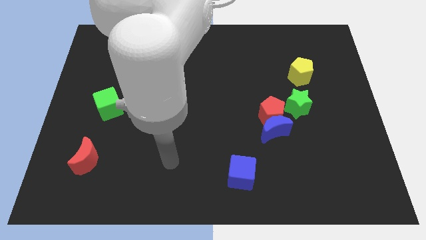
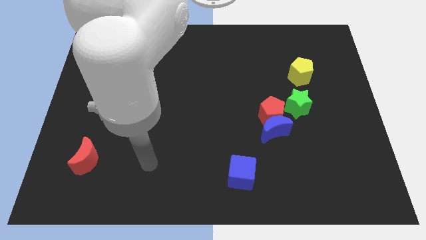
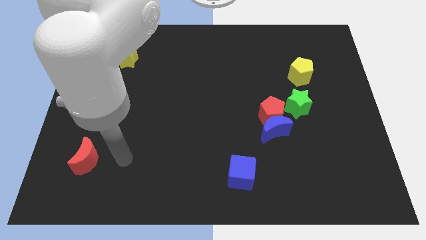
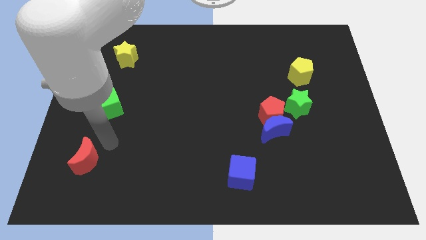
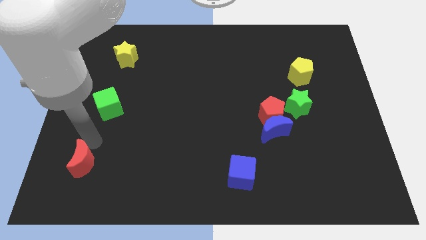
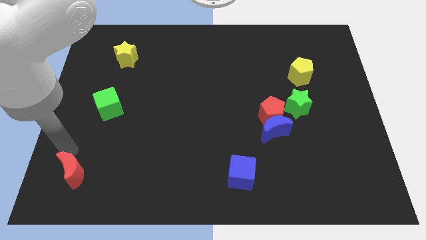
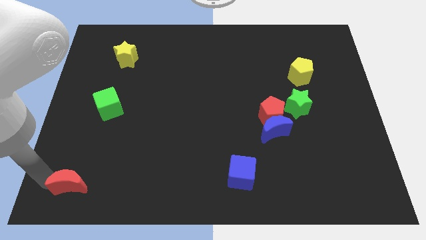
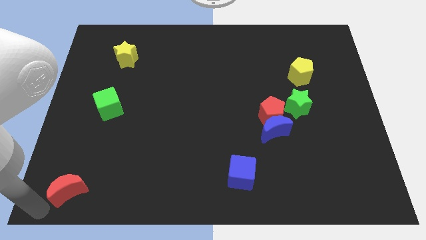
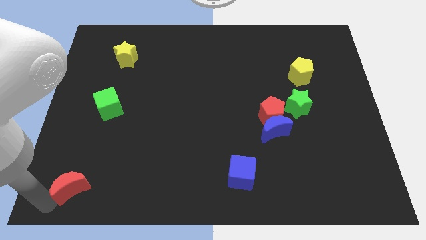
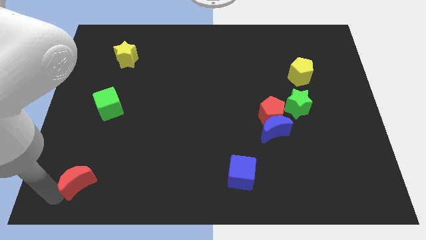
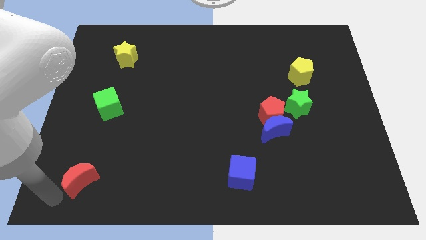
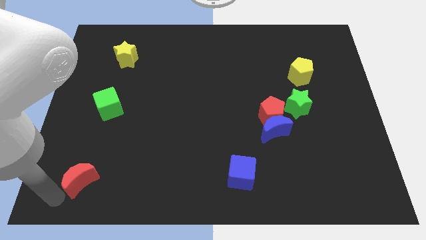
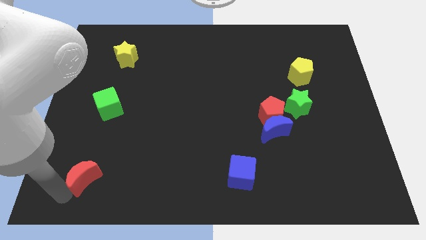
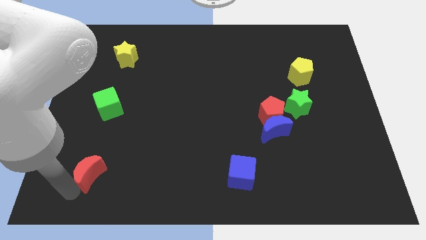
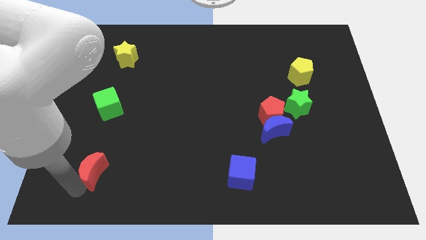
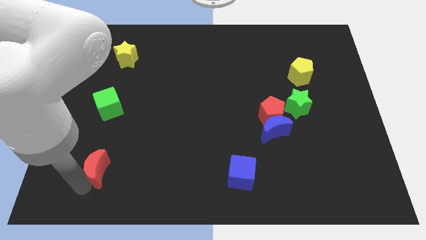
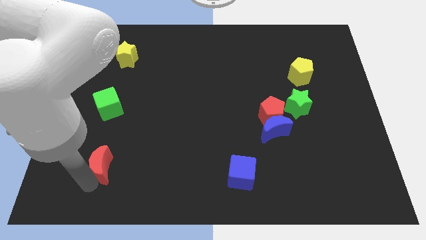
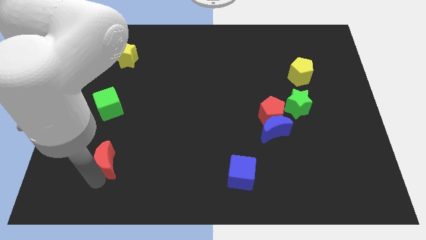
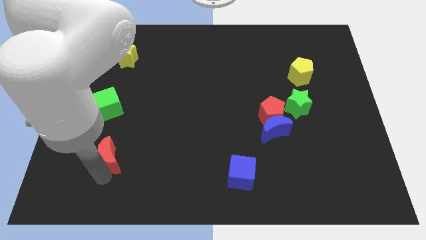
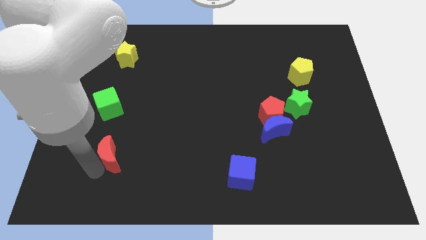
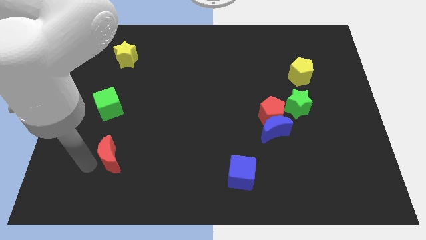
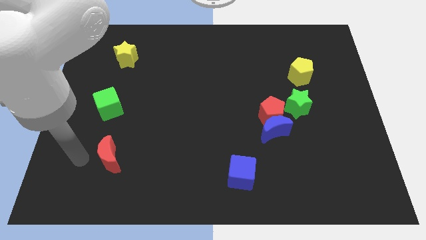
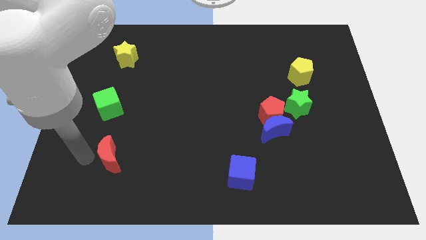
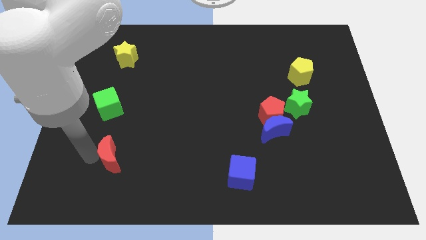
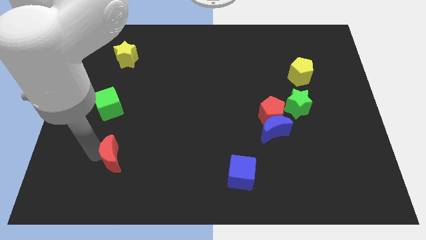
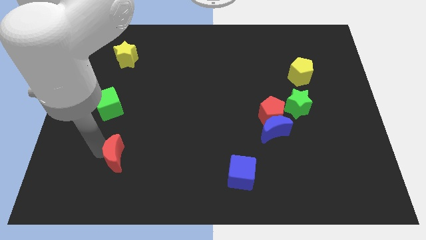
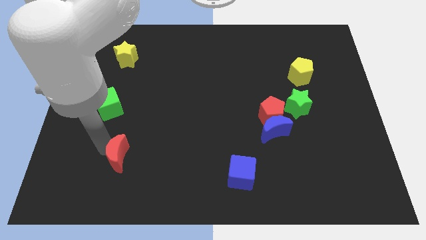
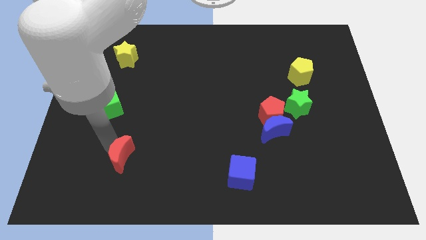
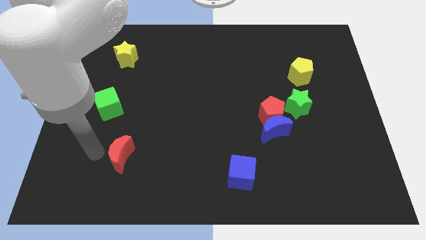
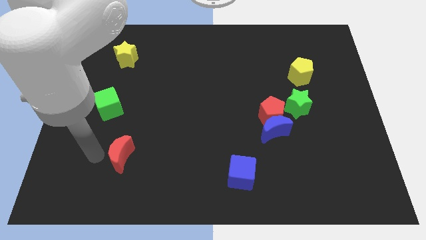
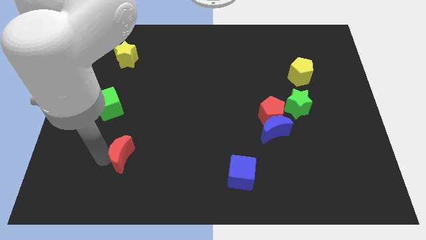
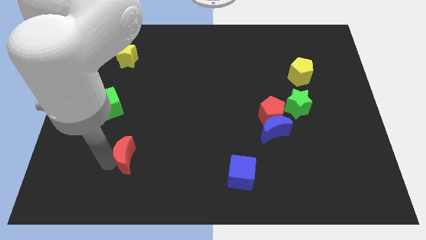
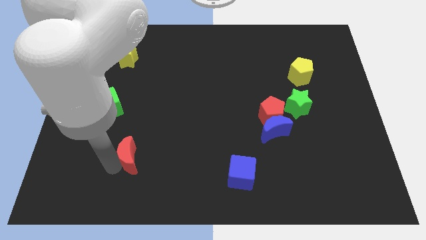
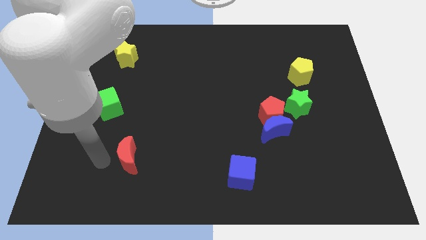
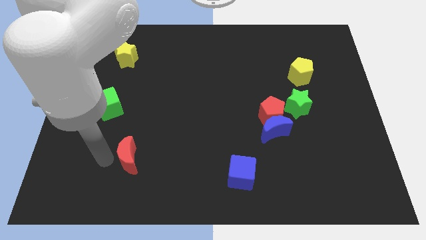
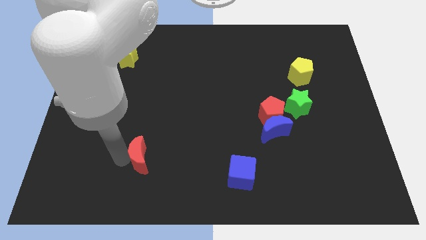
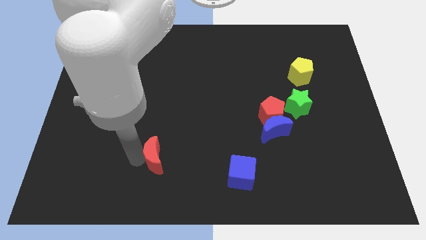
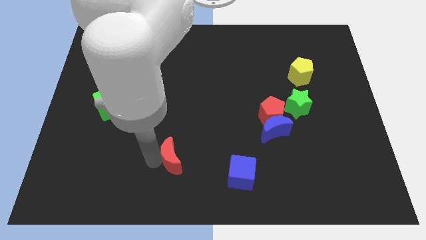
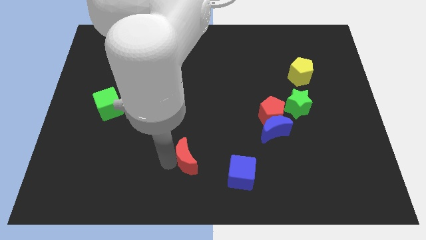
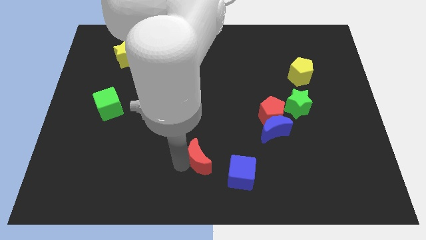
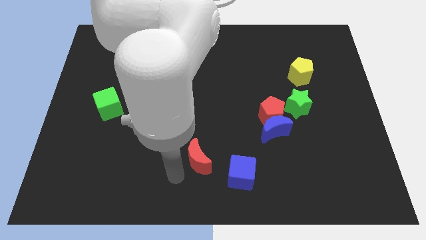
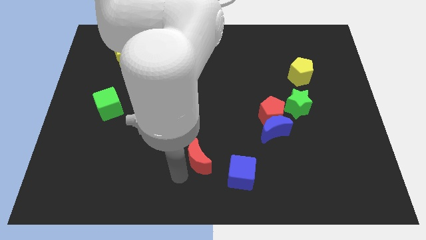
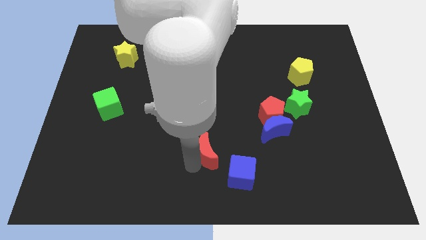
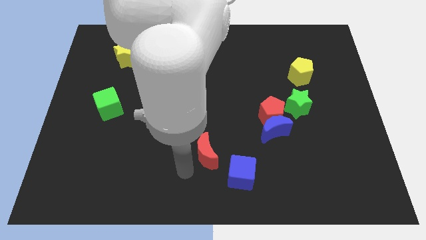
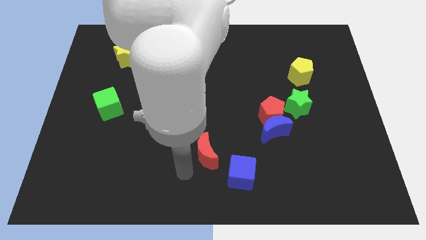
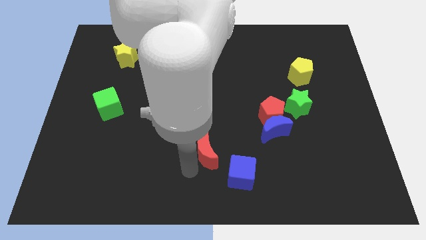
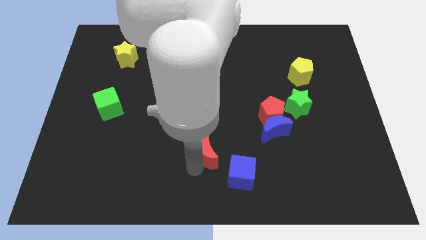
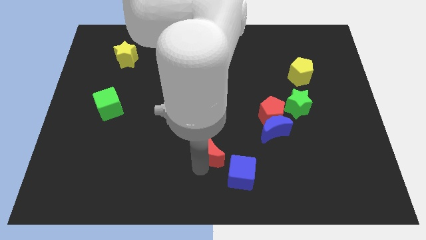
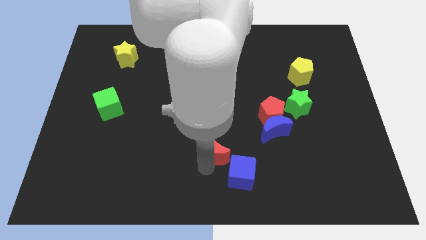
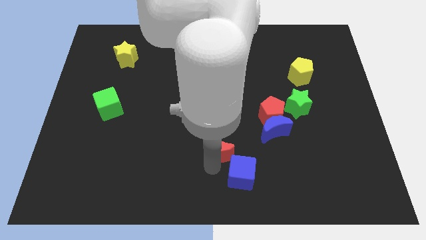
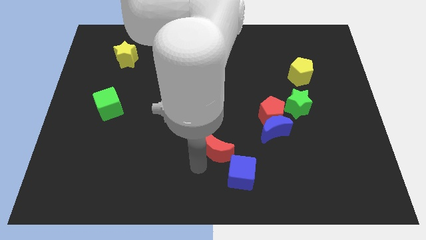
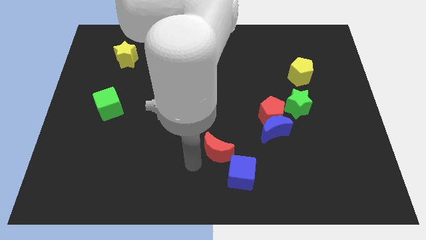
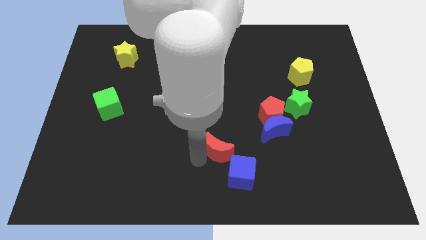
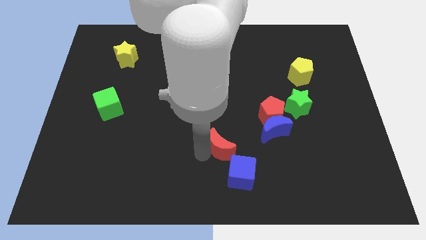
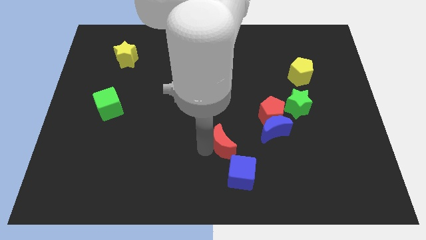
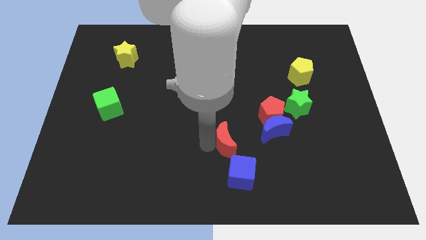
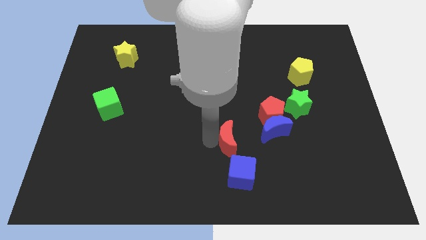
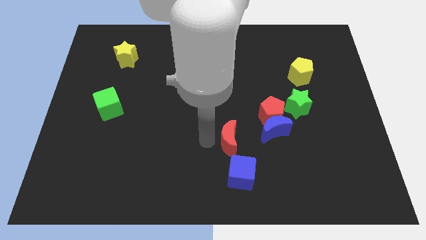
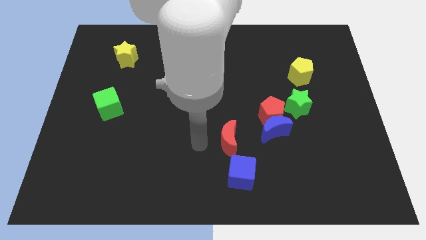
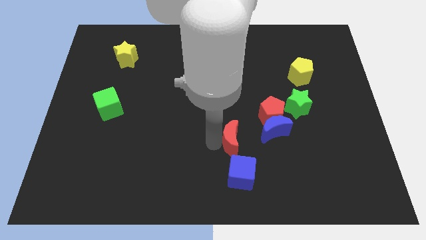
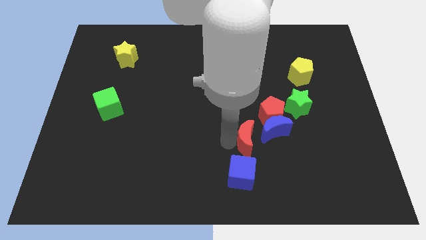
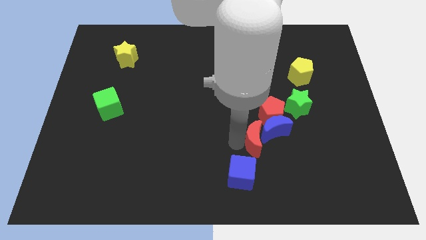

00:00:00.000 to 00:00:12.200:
push the red moon towards the blue moon
